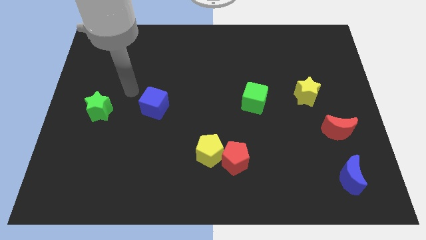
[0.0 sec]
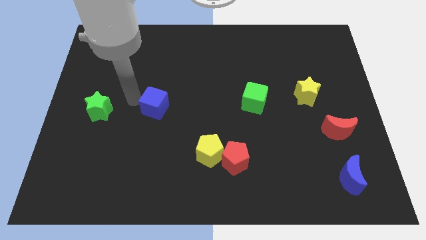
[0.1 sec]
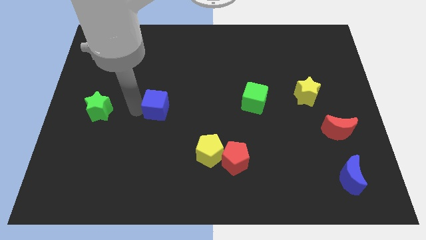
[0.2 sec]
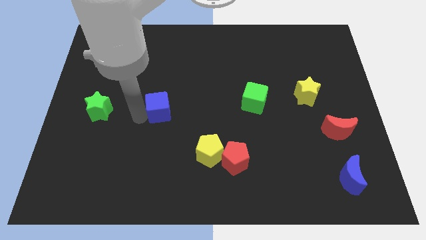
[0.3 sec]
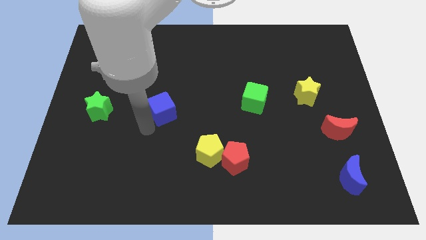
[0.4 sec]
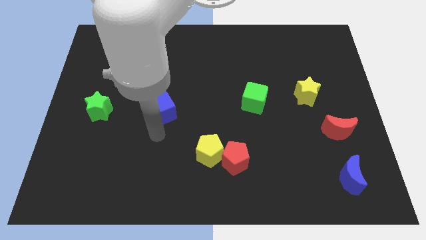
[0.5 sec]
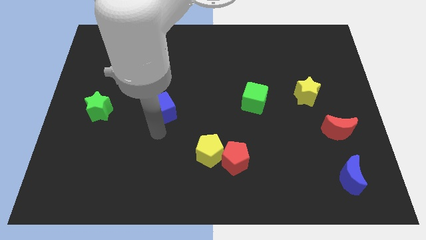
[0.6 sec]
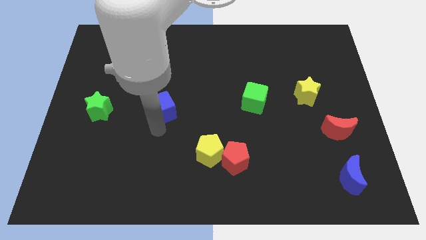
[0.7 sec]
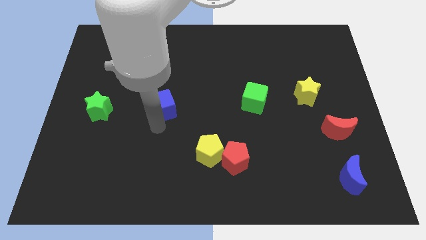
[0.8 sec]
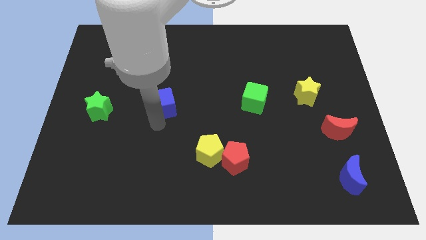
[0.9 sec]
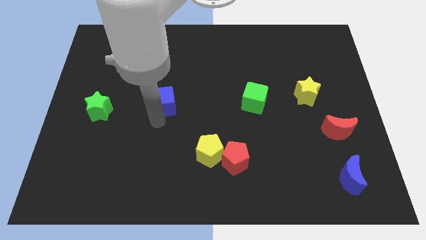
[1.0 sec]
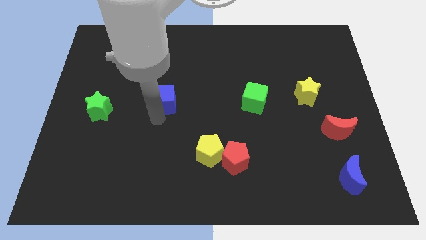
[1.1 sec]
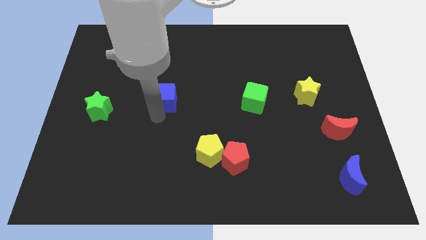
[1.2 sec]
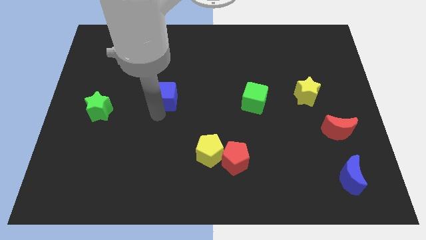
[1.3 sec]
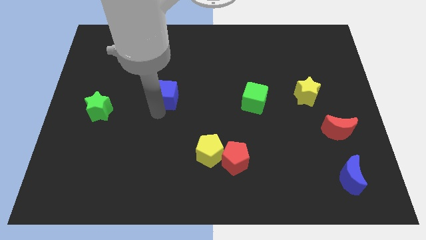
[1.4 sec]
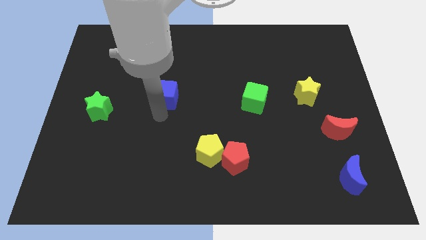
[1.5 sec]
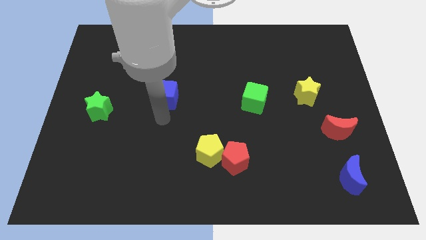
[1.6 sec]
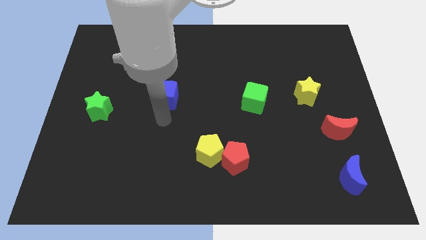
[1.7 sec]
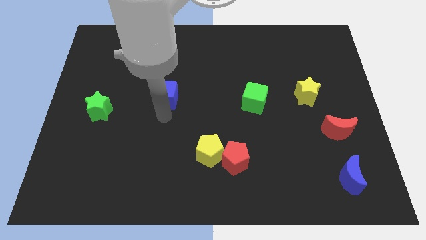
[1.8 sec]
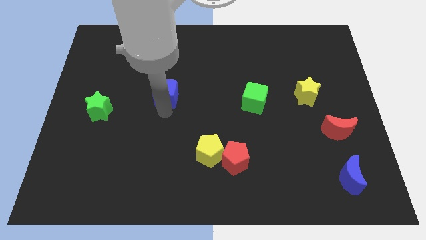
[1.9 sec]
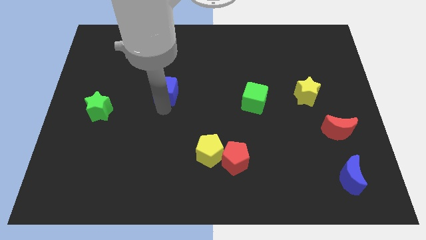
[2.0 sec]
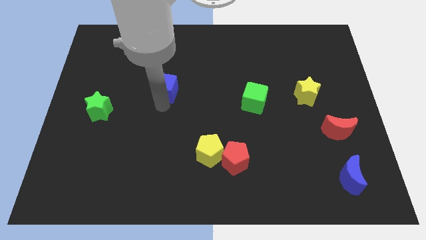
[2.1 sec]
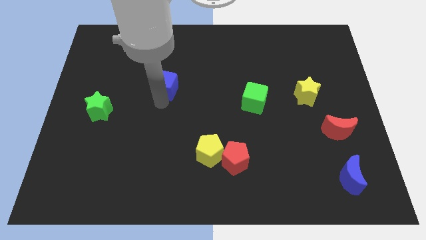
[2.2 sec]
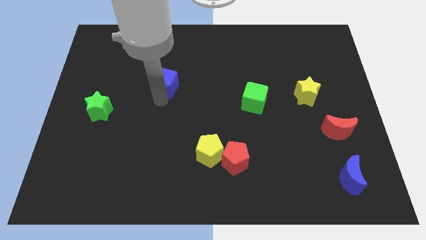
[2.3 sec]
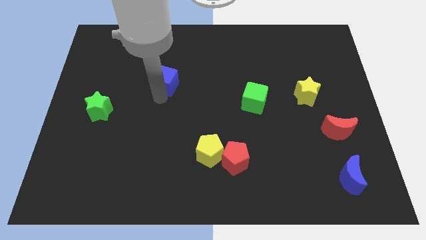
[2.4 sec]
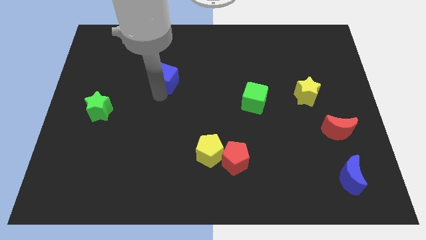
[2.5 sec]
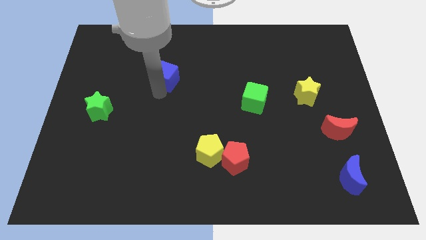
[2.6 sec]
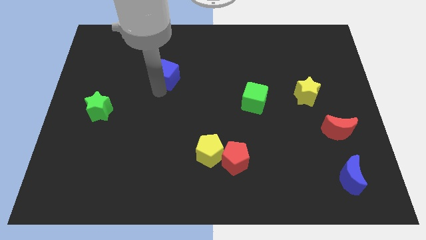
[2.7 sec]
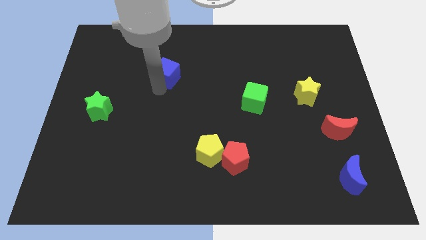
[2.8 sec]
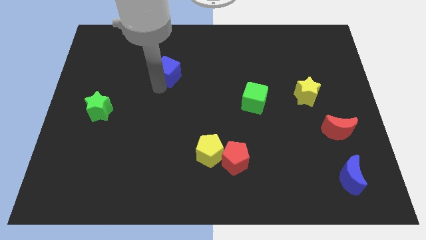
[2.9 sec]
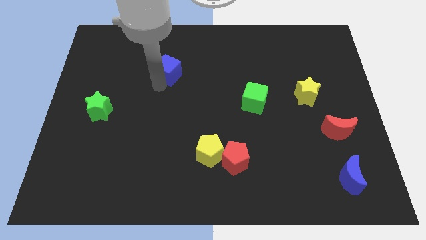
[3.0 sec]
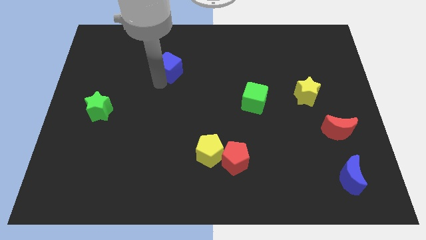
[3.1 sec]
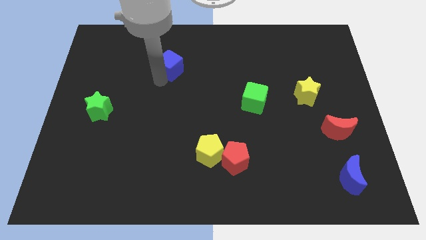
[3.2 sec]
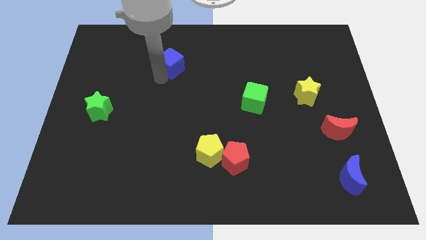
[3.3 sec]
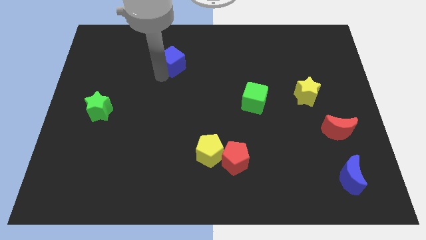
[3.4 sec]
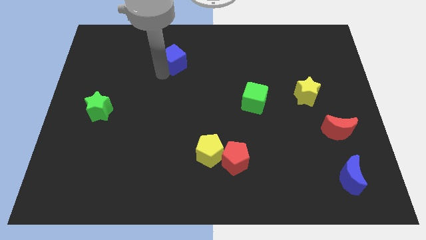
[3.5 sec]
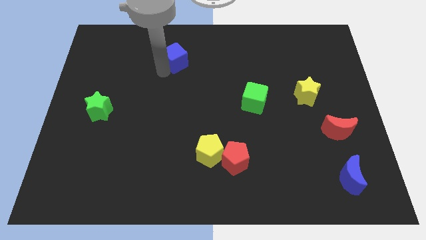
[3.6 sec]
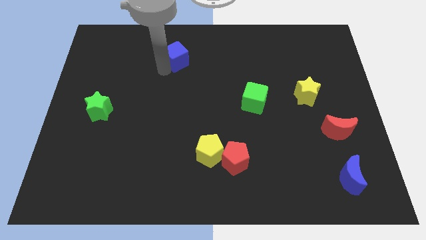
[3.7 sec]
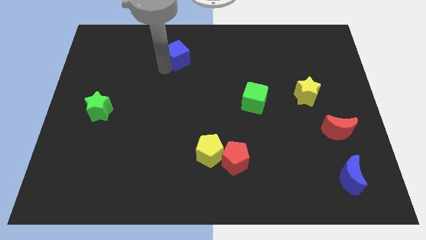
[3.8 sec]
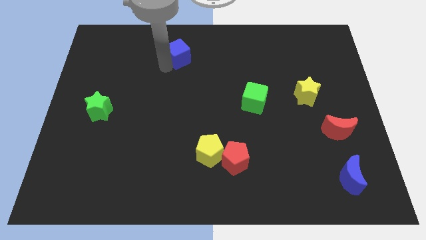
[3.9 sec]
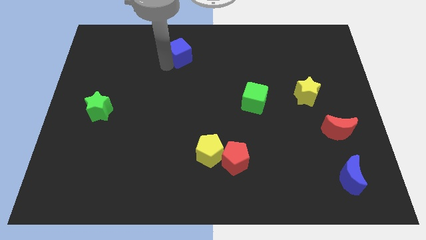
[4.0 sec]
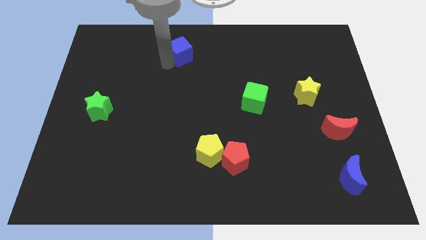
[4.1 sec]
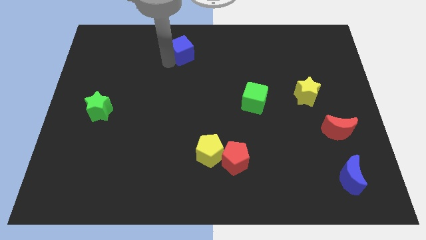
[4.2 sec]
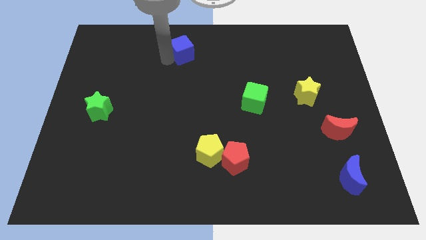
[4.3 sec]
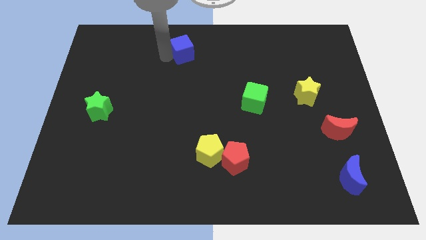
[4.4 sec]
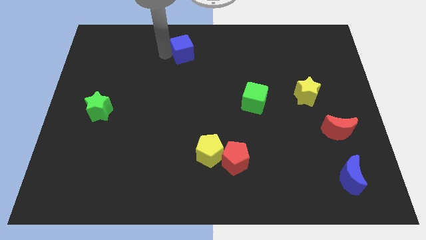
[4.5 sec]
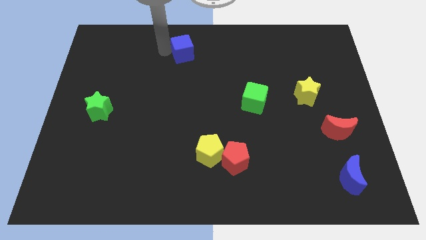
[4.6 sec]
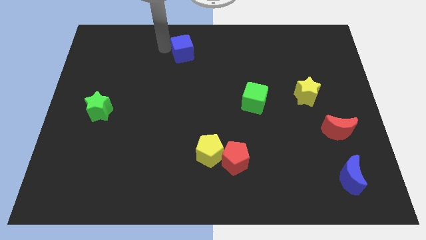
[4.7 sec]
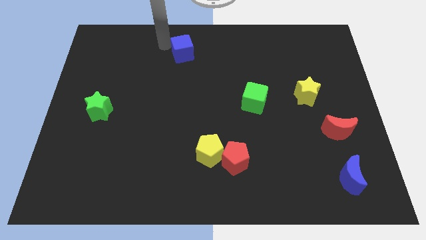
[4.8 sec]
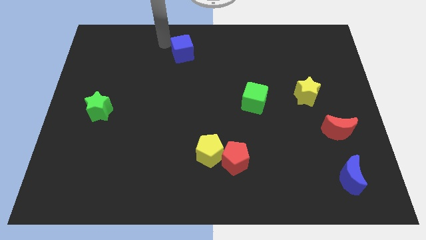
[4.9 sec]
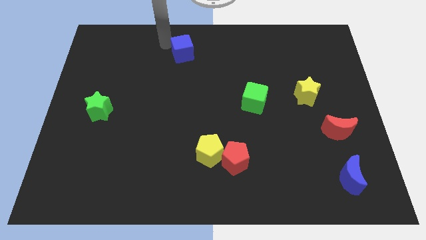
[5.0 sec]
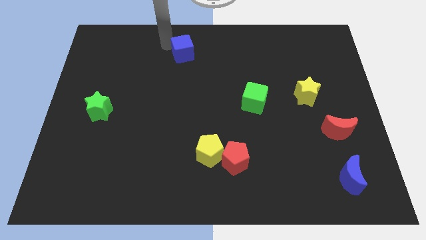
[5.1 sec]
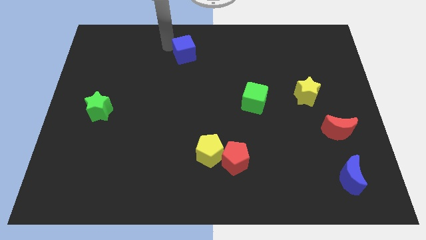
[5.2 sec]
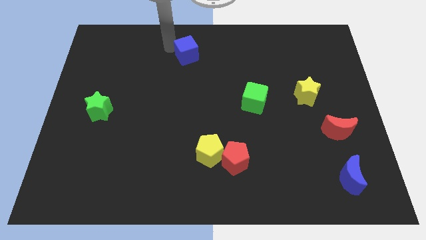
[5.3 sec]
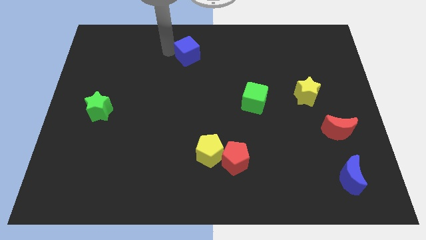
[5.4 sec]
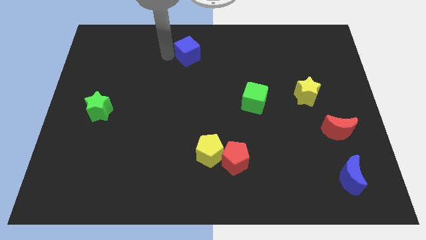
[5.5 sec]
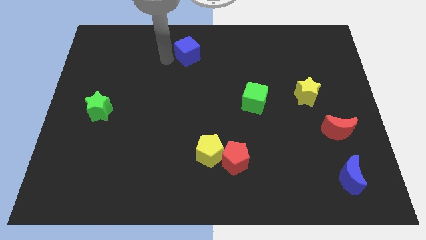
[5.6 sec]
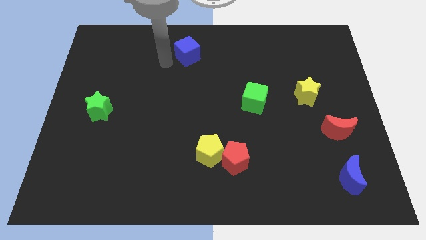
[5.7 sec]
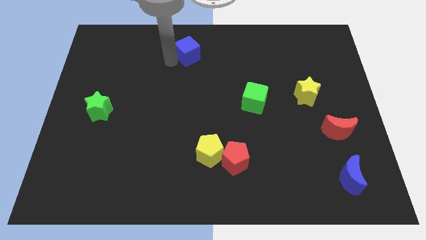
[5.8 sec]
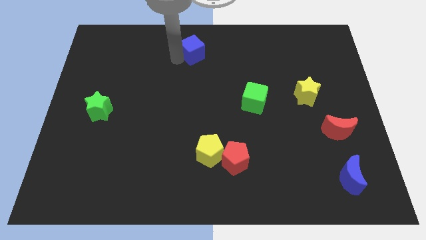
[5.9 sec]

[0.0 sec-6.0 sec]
slide the blue cube to the towards your base

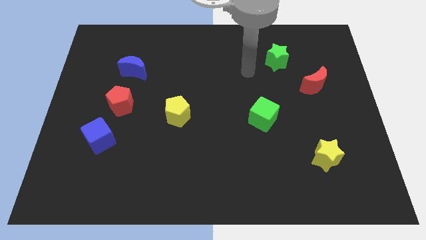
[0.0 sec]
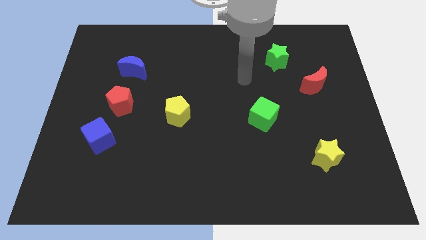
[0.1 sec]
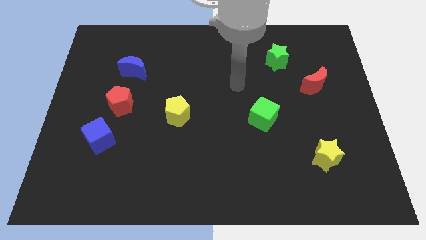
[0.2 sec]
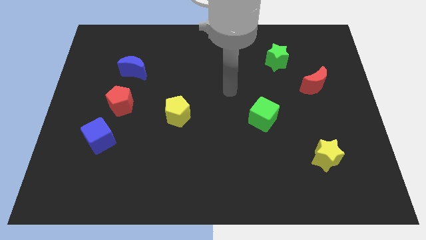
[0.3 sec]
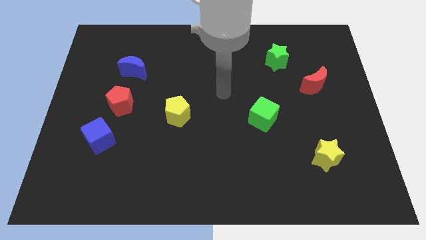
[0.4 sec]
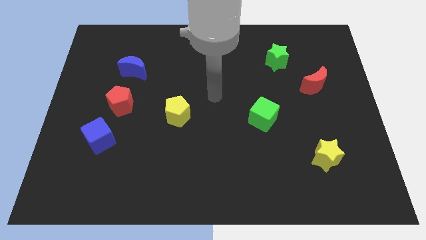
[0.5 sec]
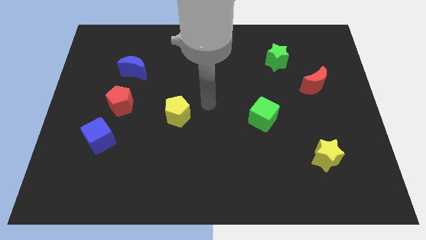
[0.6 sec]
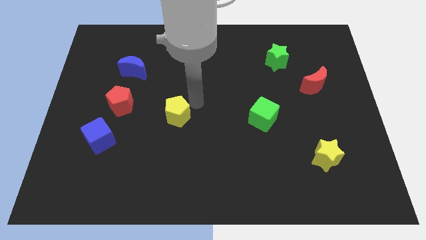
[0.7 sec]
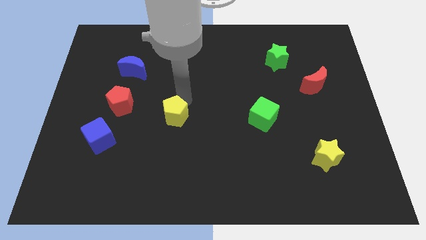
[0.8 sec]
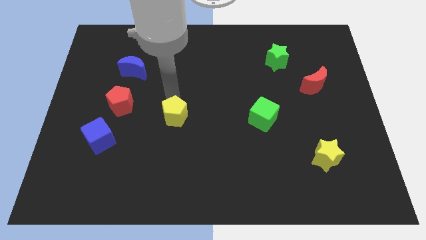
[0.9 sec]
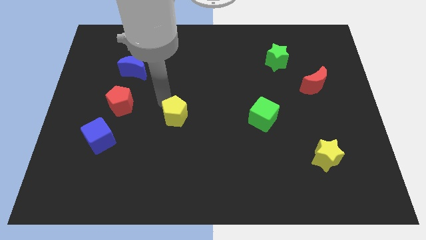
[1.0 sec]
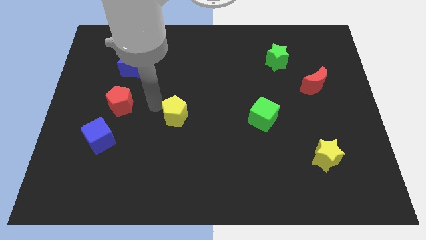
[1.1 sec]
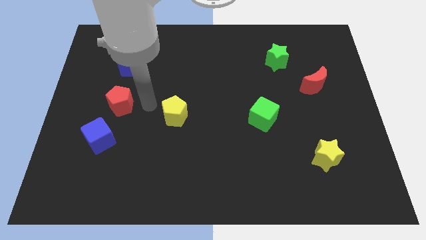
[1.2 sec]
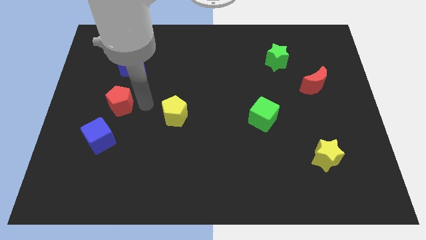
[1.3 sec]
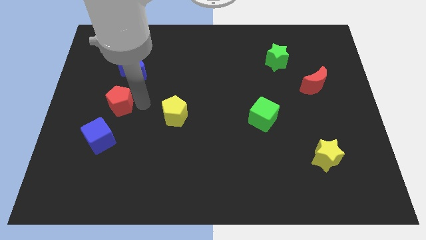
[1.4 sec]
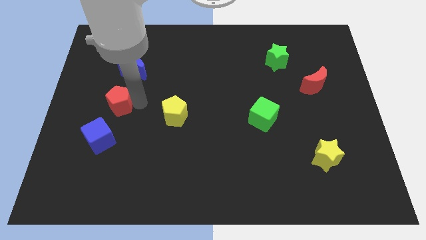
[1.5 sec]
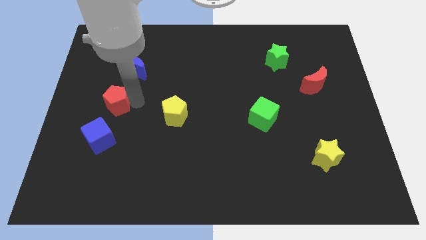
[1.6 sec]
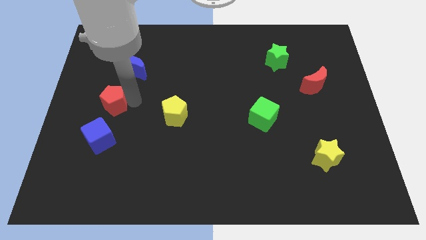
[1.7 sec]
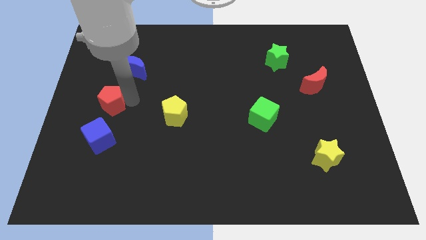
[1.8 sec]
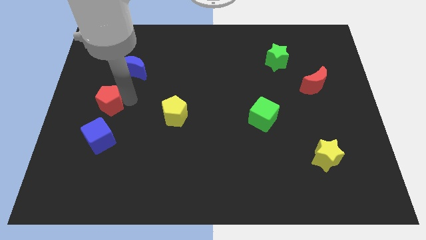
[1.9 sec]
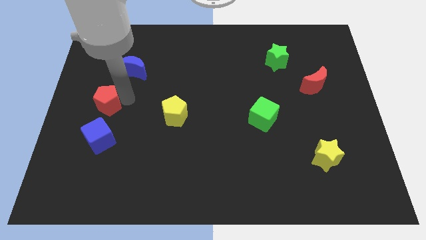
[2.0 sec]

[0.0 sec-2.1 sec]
slide the red pentagon to the center left
